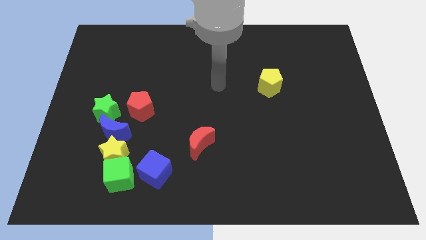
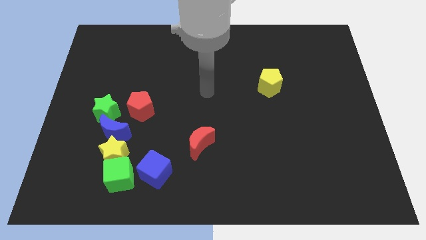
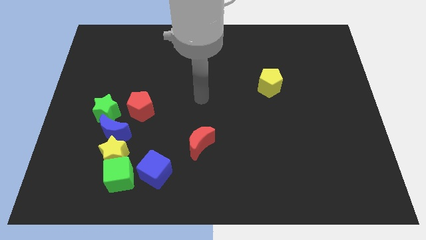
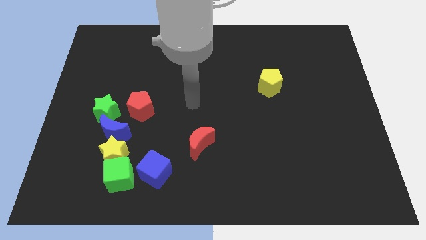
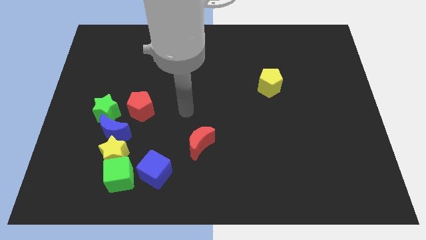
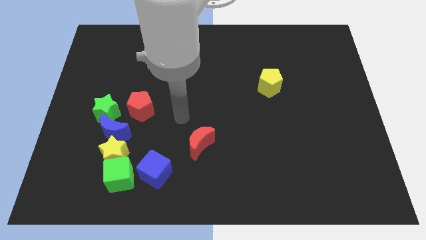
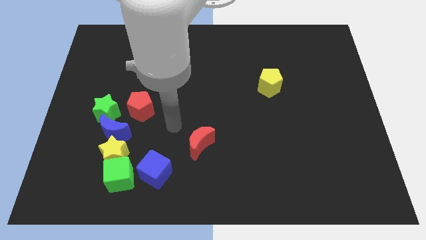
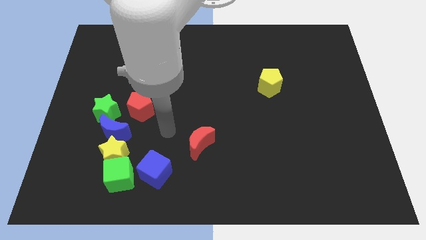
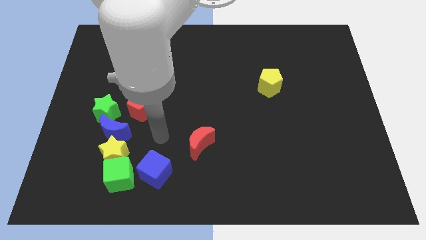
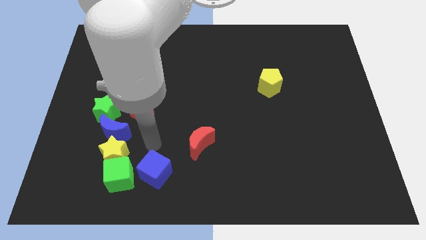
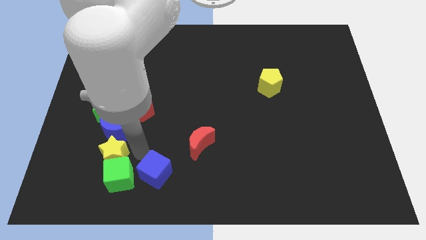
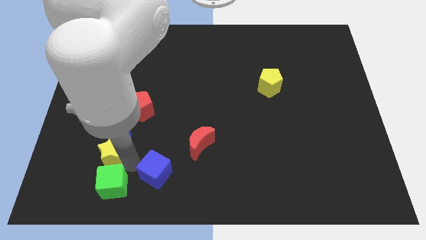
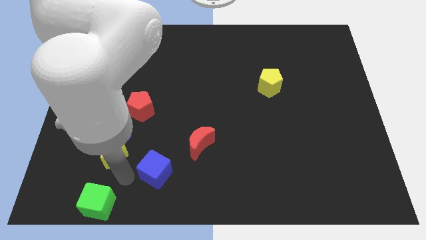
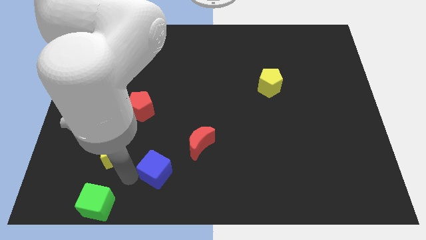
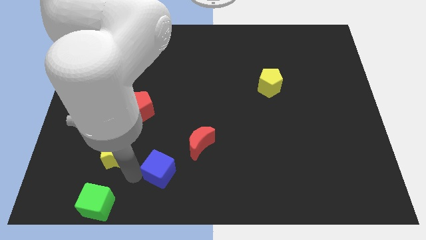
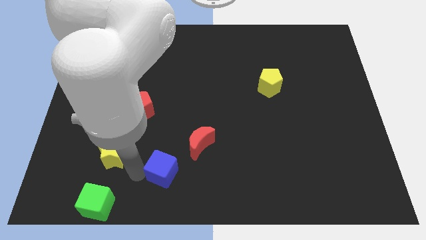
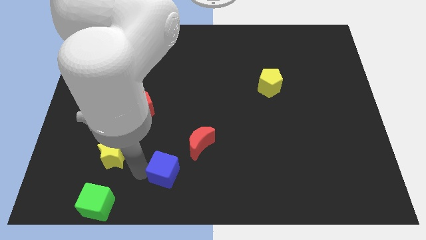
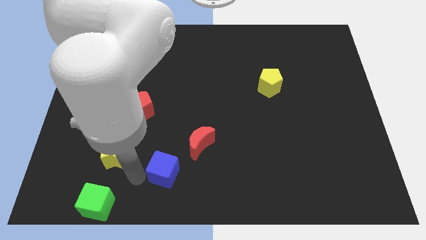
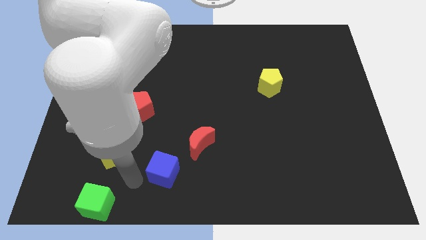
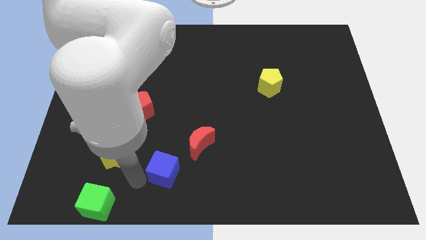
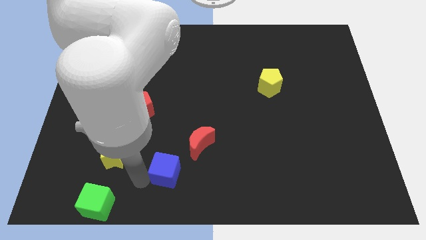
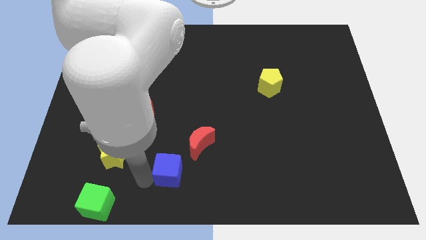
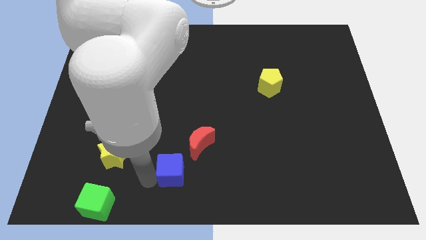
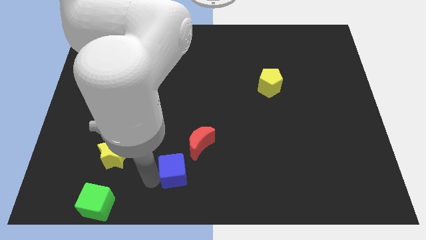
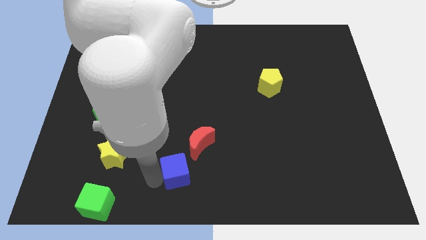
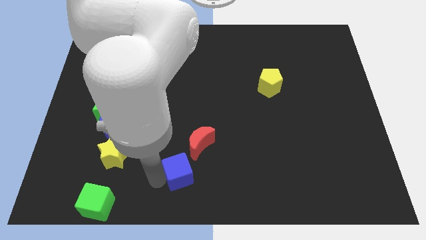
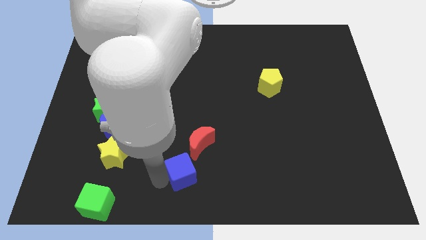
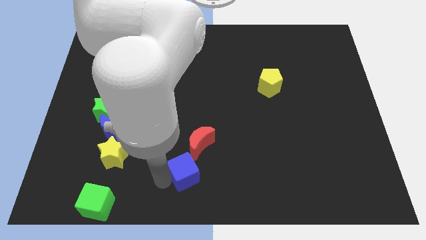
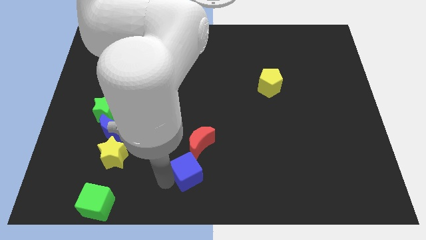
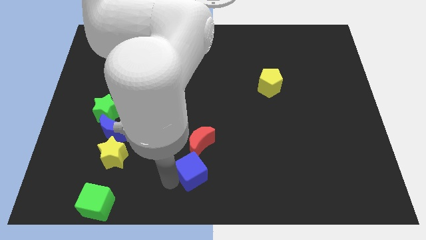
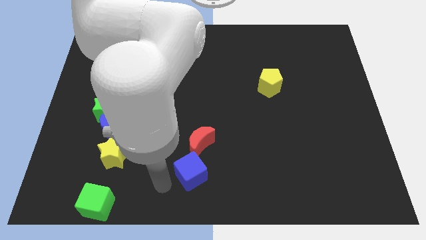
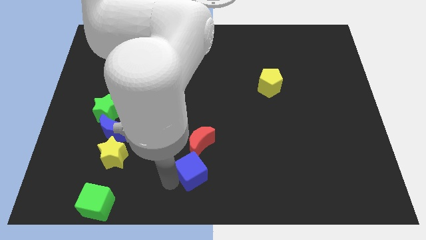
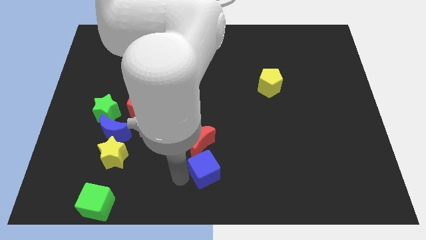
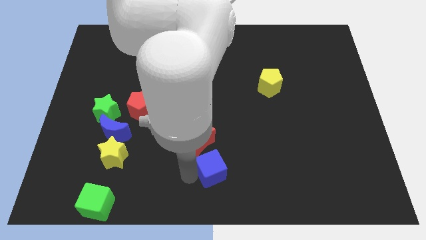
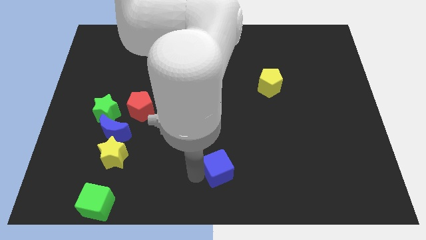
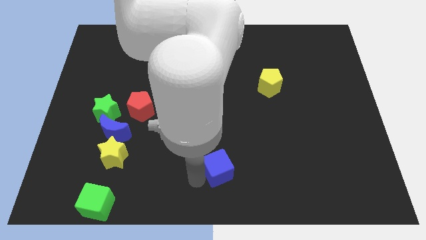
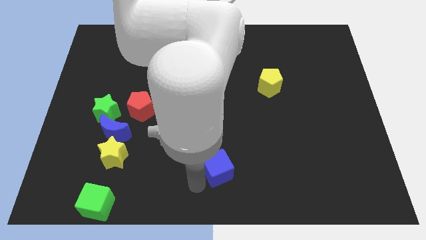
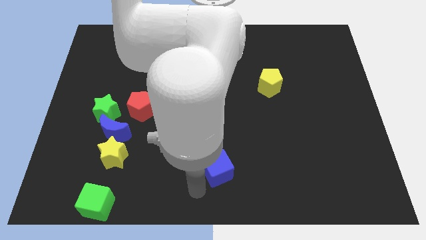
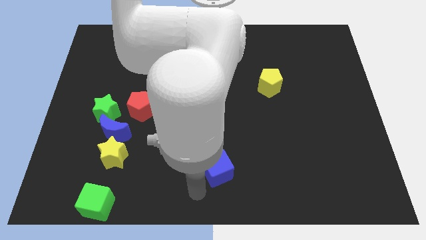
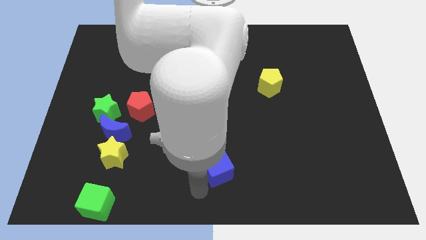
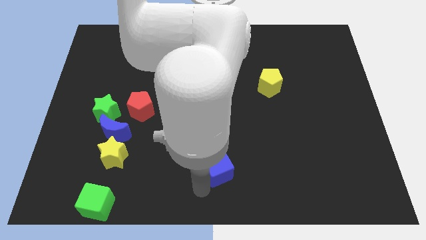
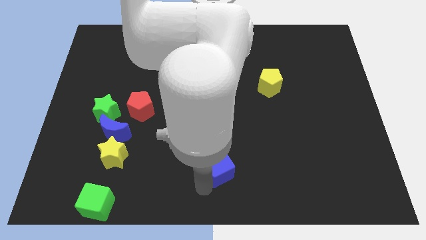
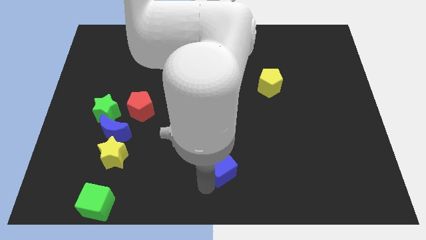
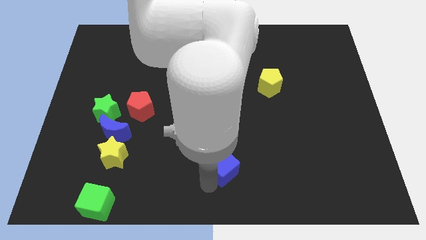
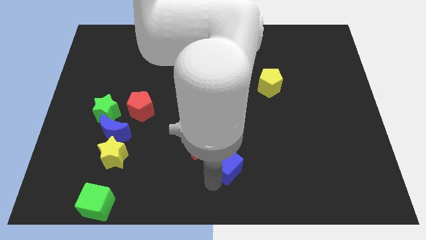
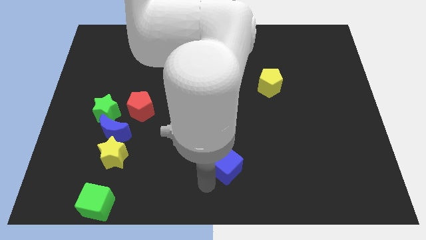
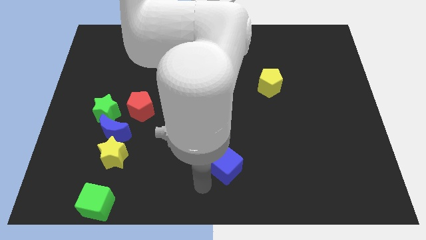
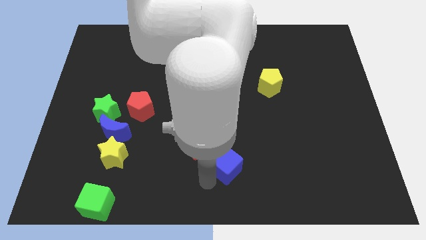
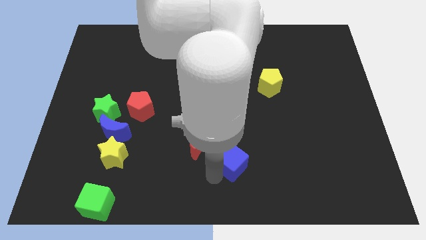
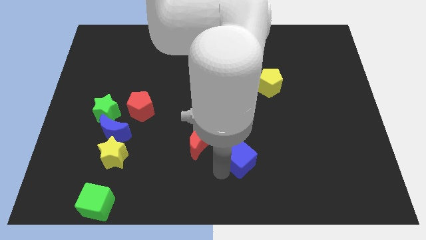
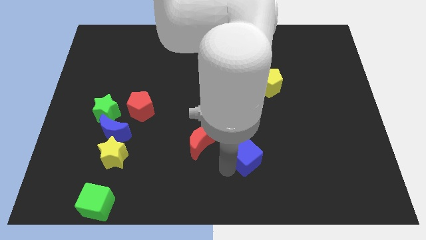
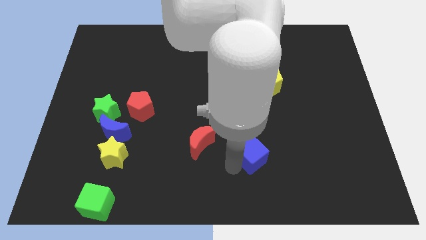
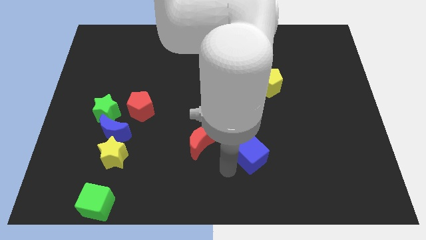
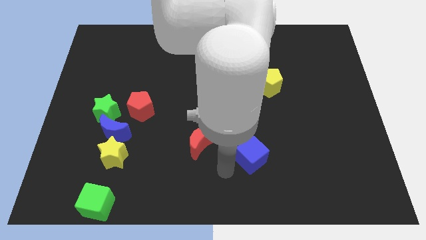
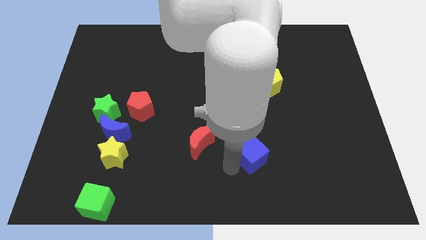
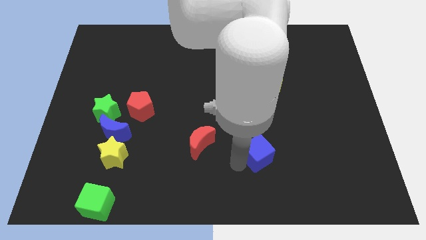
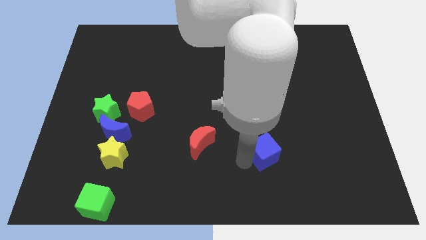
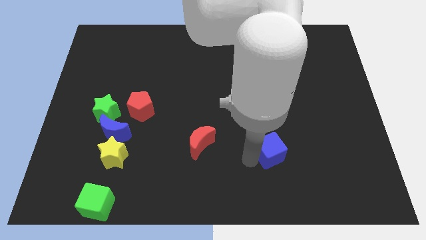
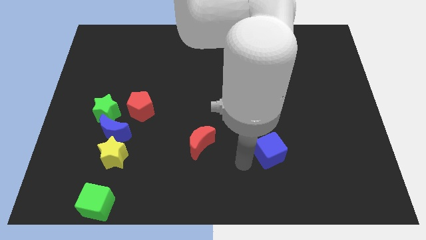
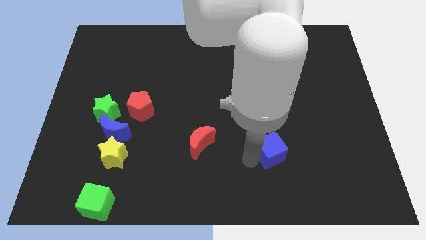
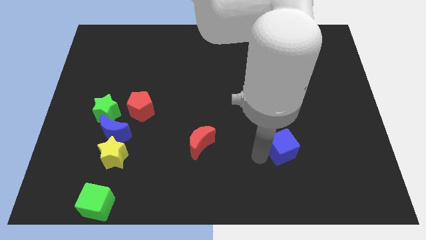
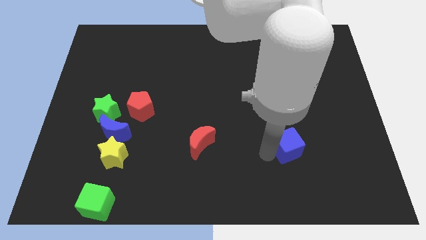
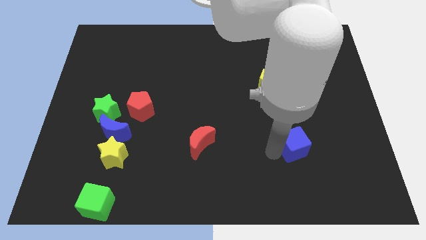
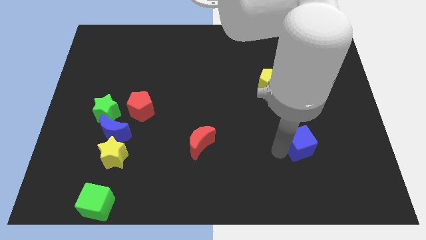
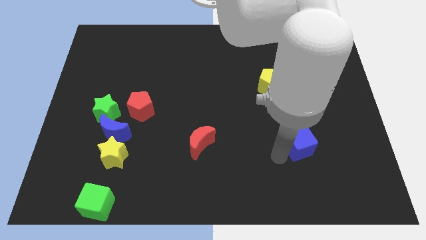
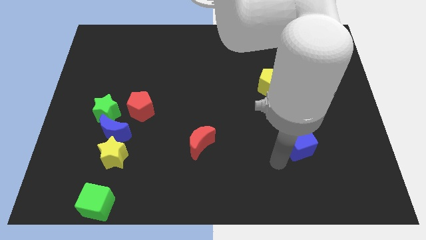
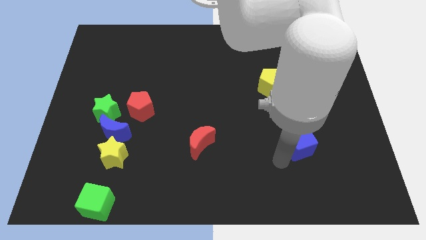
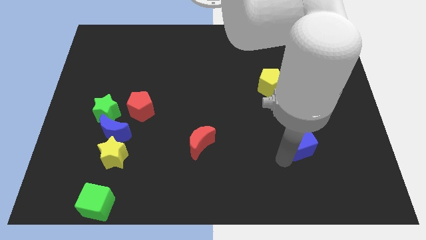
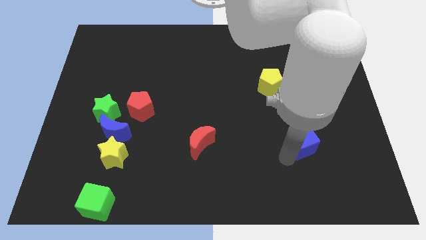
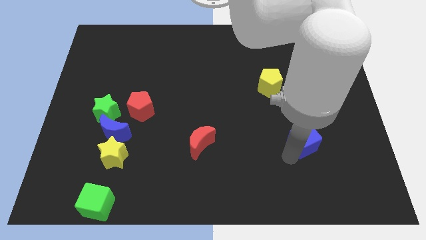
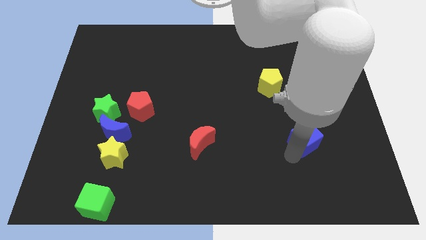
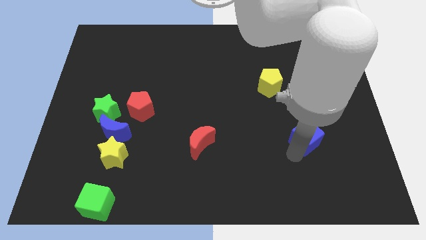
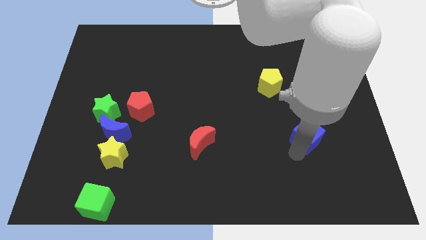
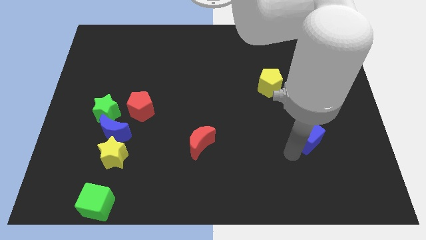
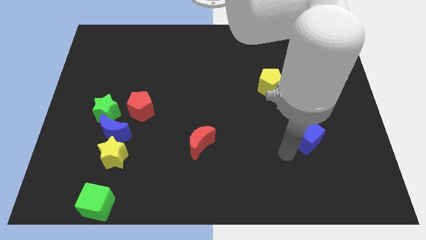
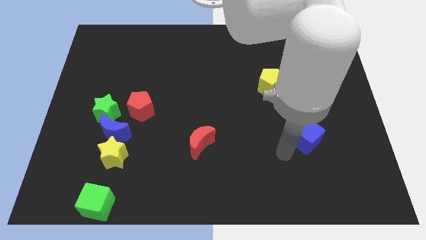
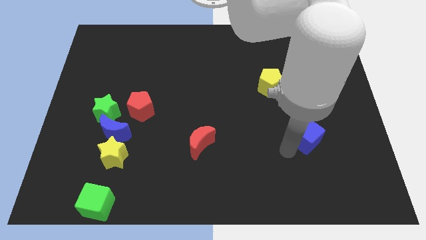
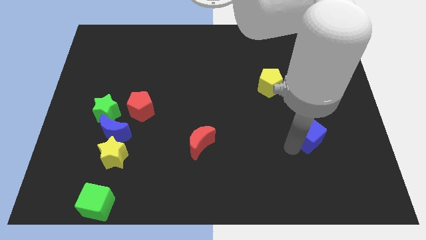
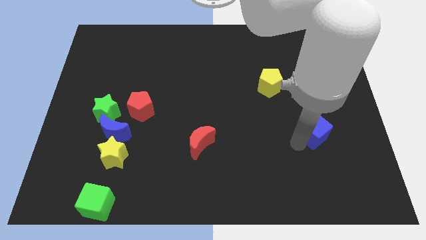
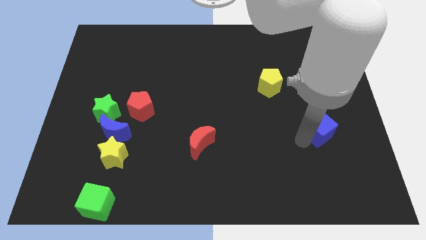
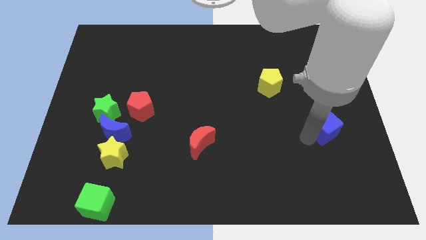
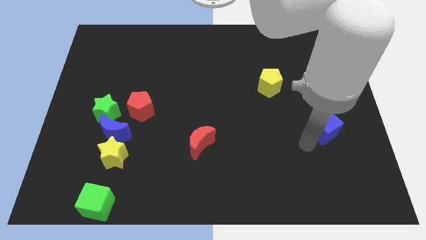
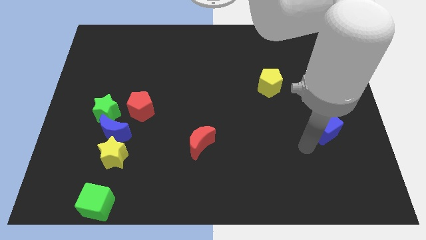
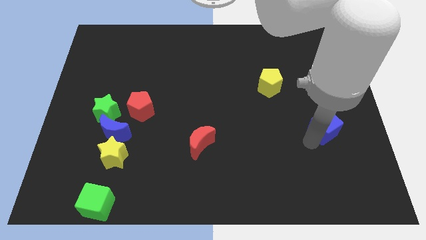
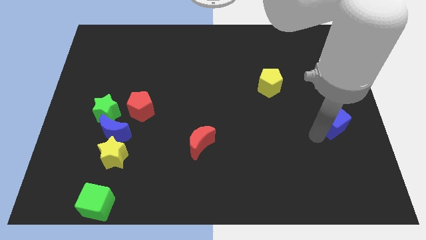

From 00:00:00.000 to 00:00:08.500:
push the blue cube to the right side of the board
